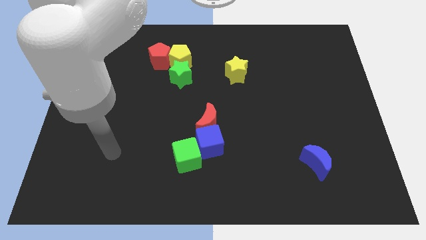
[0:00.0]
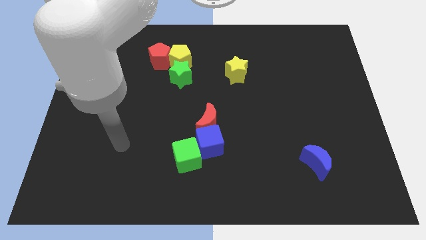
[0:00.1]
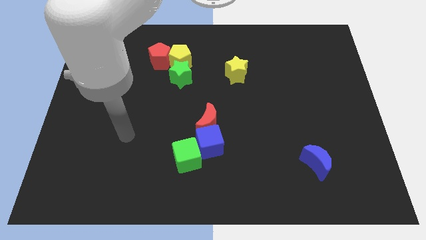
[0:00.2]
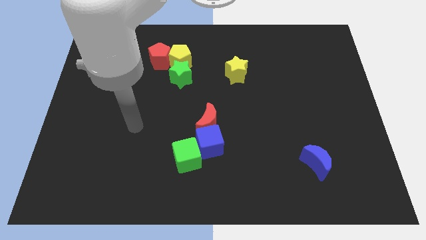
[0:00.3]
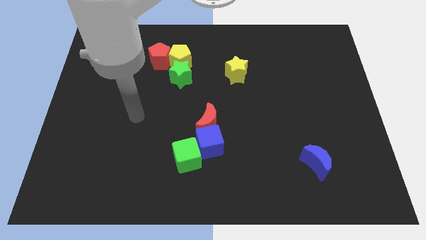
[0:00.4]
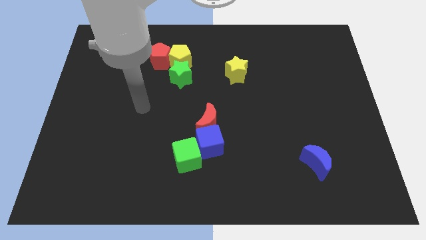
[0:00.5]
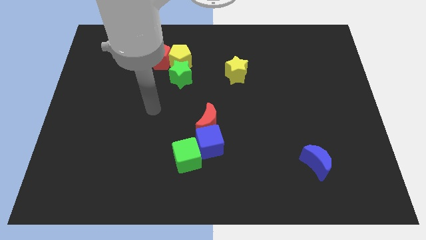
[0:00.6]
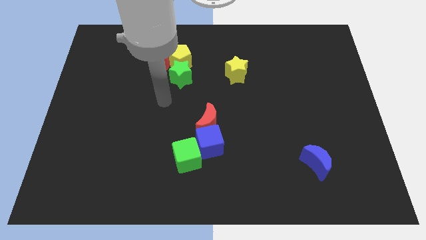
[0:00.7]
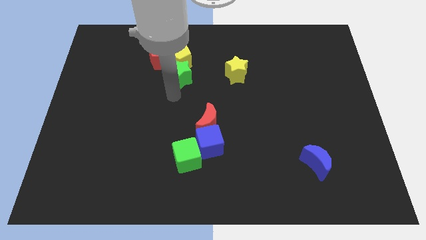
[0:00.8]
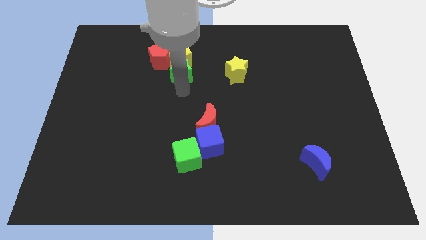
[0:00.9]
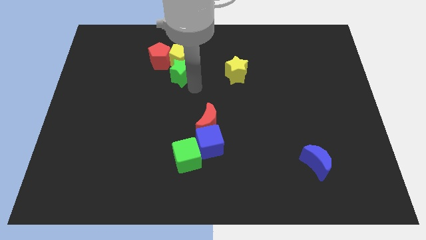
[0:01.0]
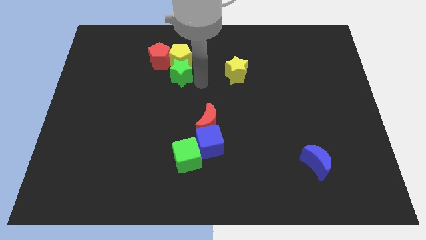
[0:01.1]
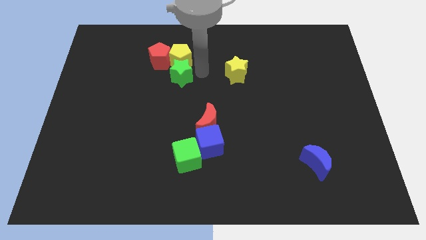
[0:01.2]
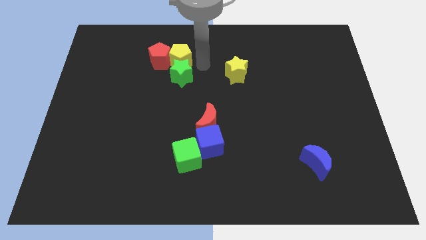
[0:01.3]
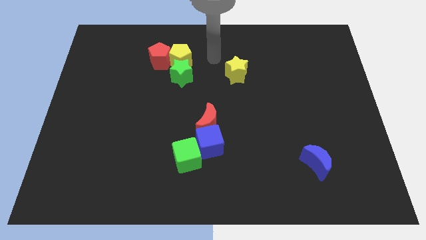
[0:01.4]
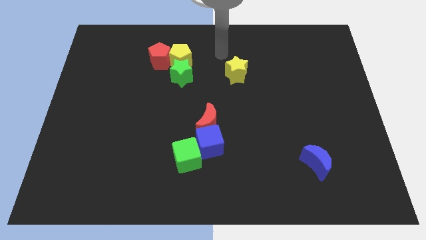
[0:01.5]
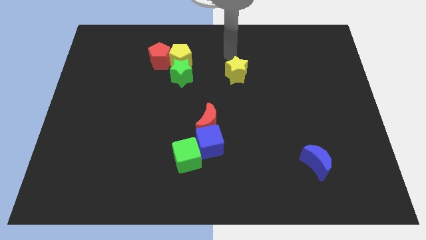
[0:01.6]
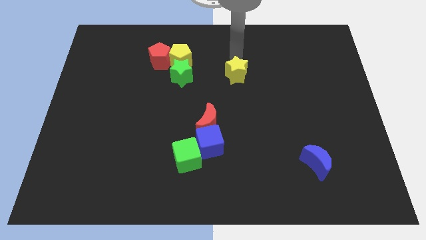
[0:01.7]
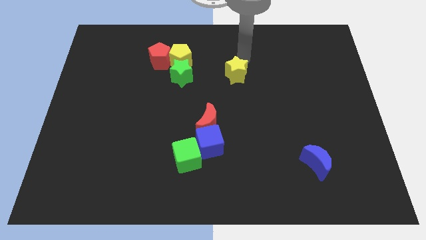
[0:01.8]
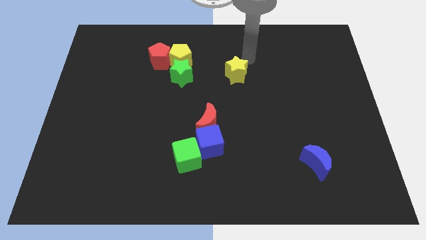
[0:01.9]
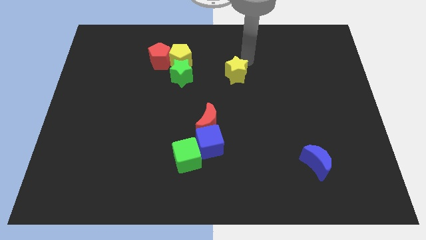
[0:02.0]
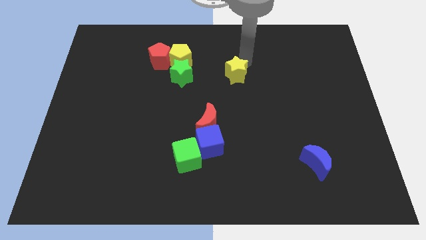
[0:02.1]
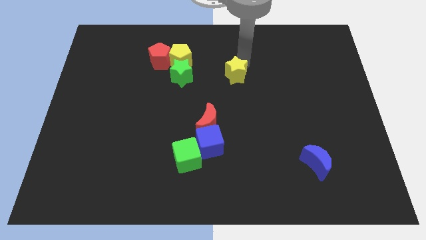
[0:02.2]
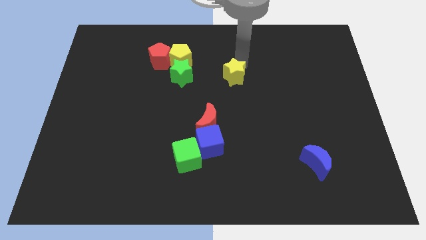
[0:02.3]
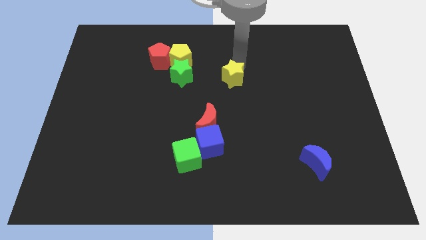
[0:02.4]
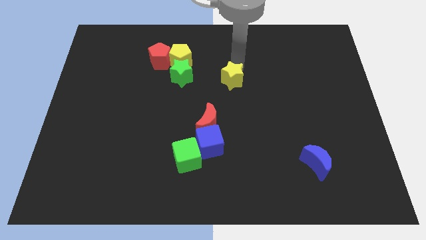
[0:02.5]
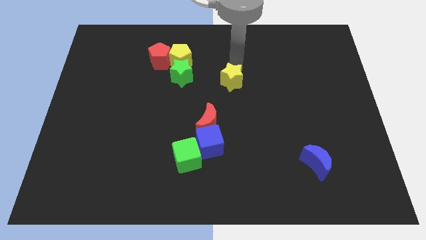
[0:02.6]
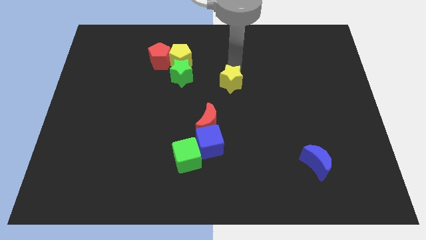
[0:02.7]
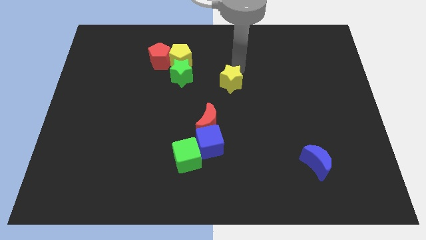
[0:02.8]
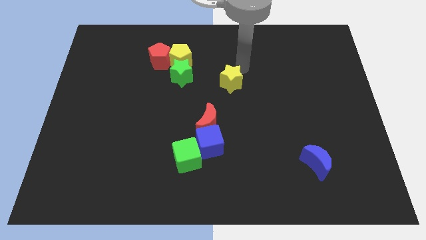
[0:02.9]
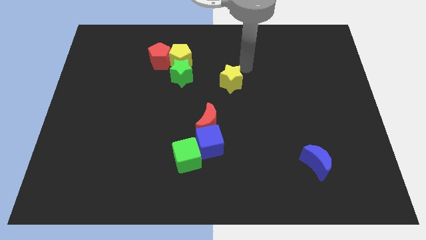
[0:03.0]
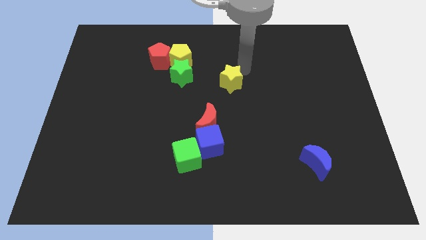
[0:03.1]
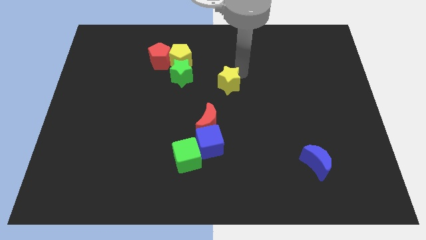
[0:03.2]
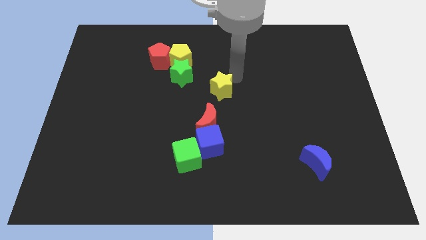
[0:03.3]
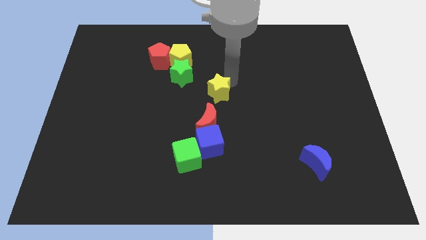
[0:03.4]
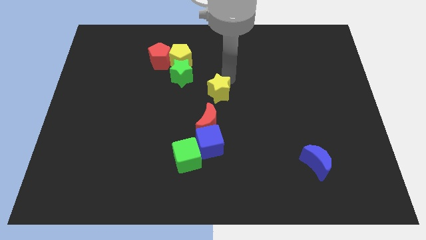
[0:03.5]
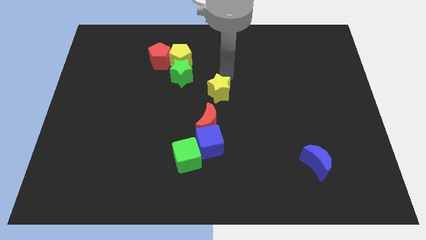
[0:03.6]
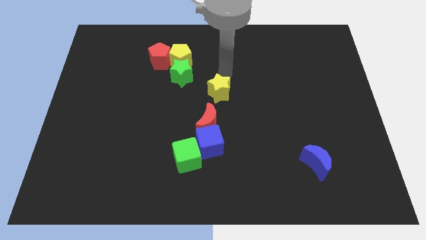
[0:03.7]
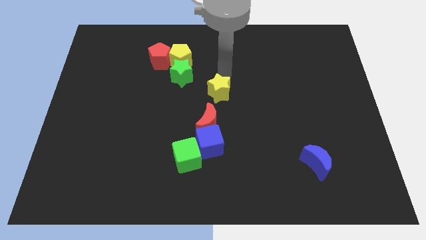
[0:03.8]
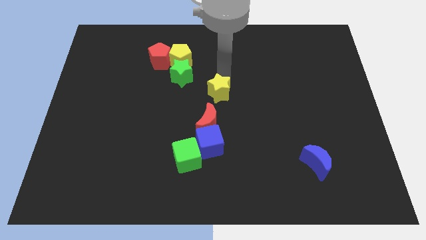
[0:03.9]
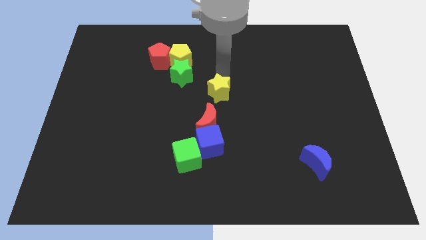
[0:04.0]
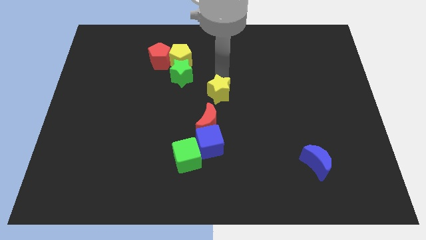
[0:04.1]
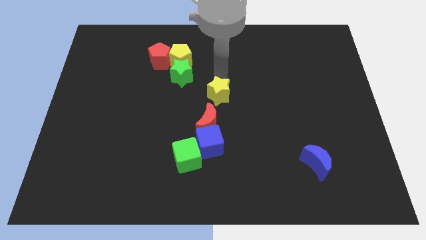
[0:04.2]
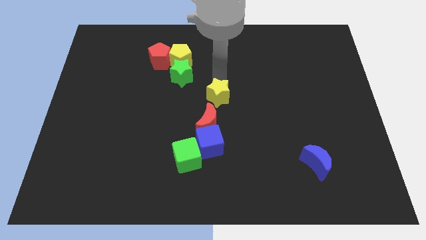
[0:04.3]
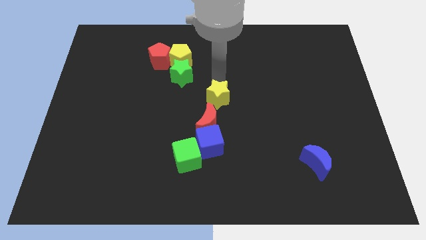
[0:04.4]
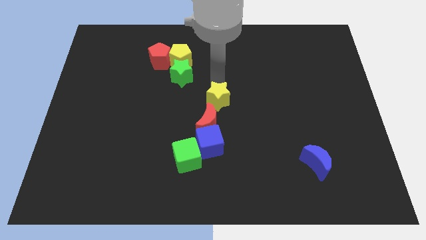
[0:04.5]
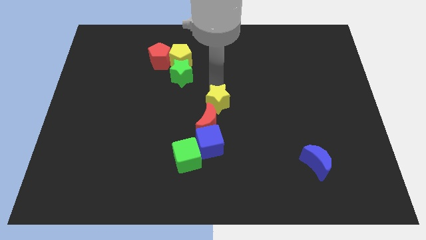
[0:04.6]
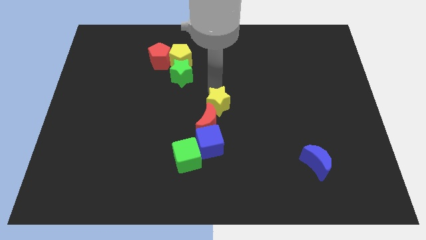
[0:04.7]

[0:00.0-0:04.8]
slide the yellow star towards the red moon

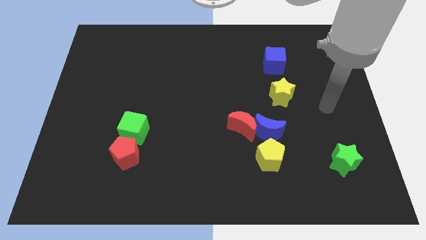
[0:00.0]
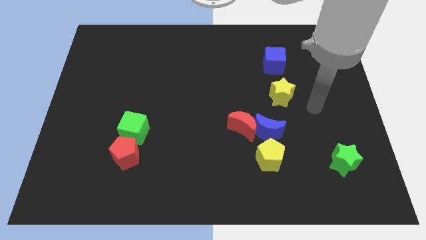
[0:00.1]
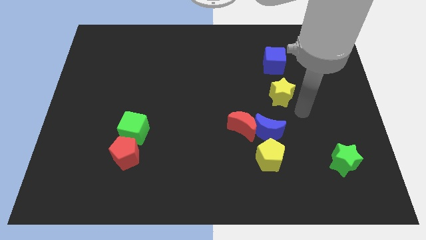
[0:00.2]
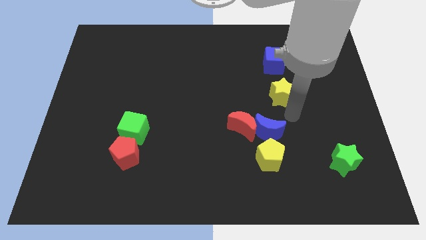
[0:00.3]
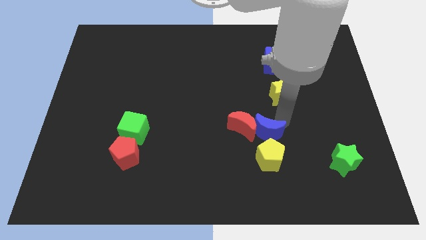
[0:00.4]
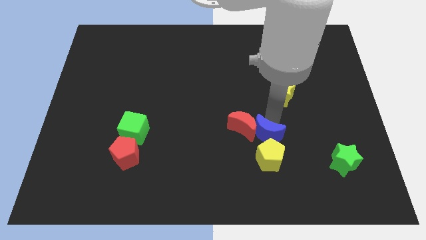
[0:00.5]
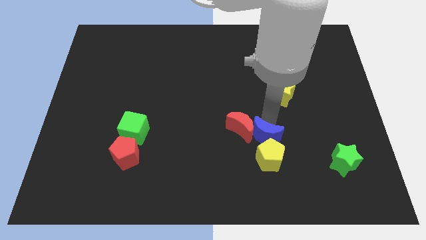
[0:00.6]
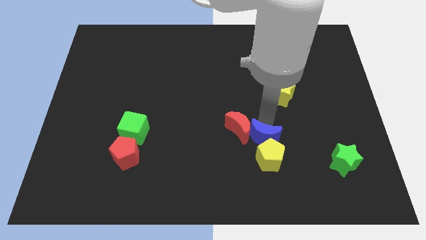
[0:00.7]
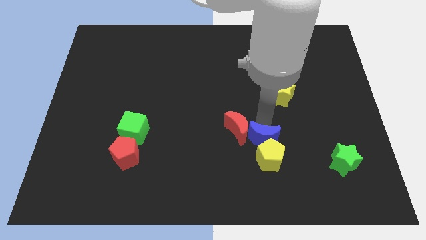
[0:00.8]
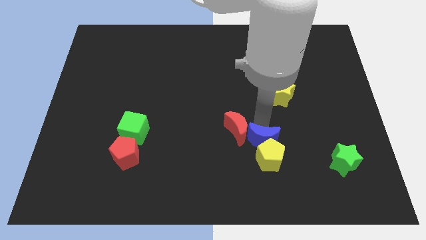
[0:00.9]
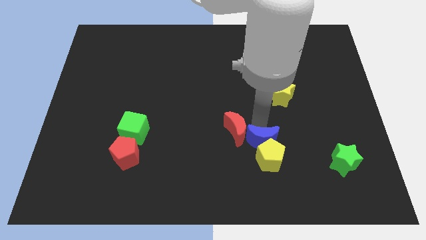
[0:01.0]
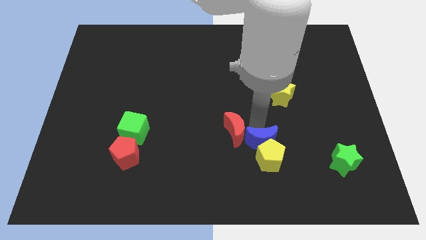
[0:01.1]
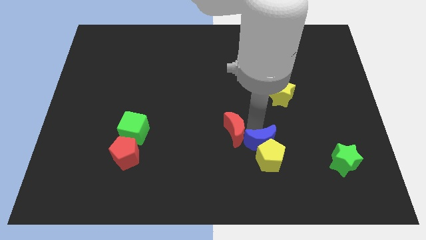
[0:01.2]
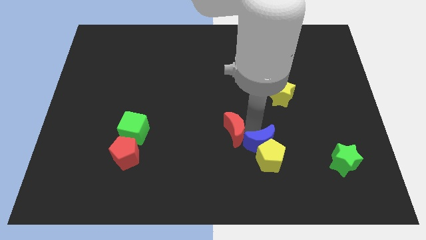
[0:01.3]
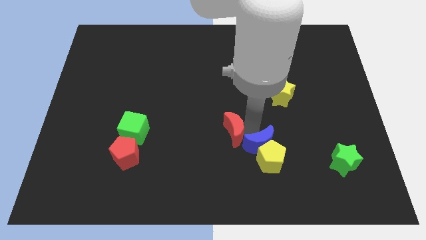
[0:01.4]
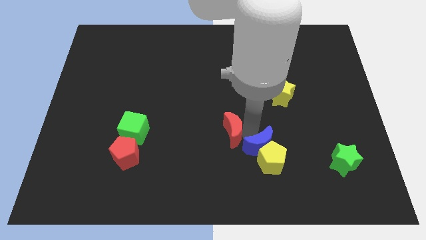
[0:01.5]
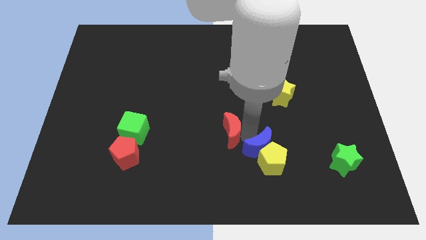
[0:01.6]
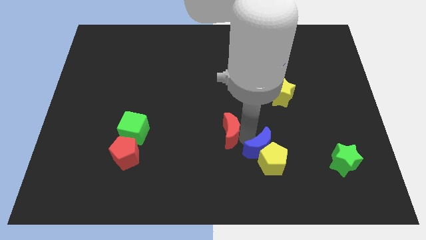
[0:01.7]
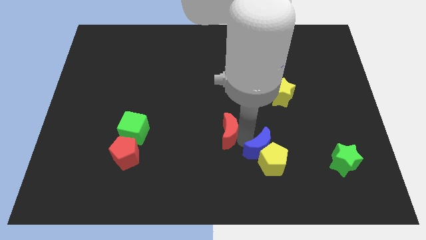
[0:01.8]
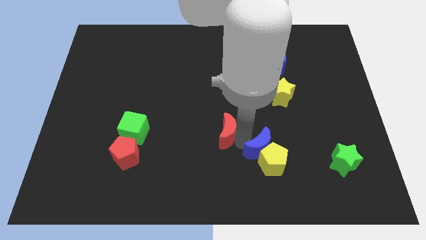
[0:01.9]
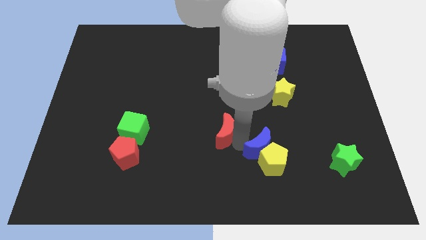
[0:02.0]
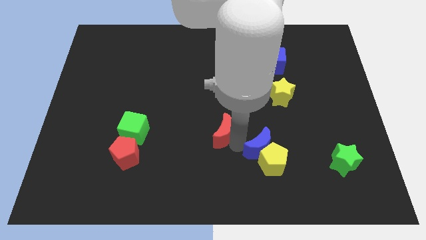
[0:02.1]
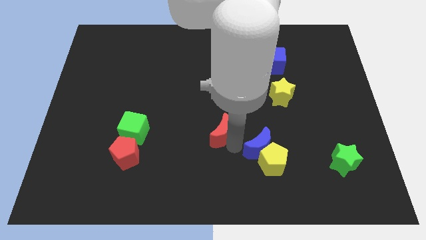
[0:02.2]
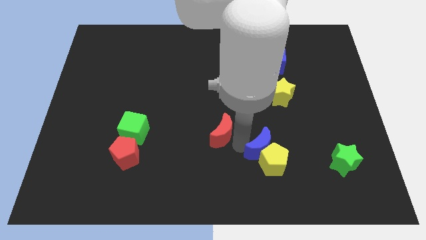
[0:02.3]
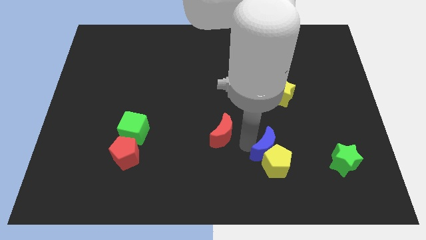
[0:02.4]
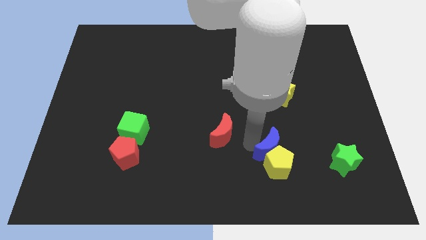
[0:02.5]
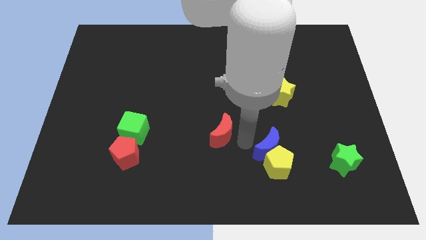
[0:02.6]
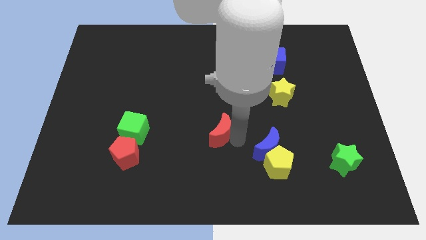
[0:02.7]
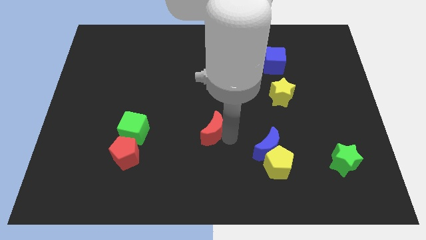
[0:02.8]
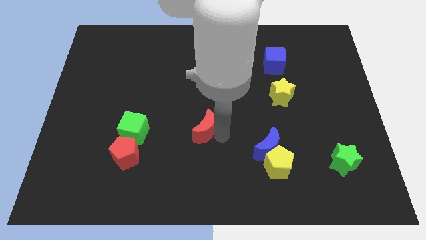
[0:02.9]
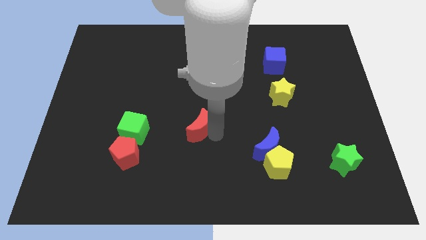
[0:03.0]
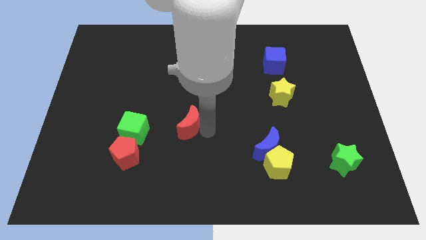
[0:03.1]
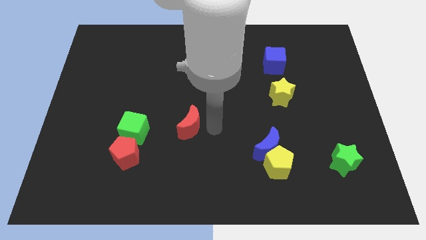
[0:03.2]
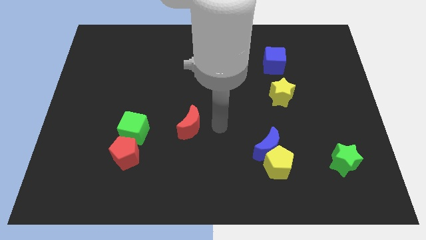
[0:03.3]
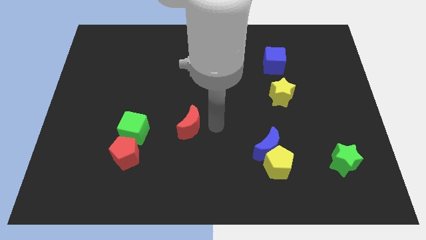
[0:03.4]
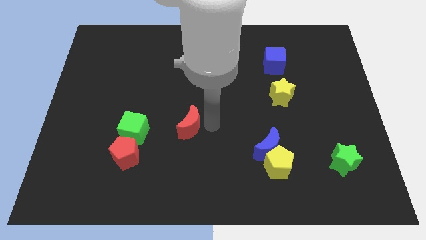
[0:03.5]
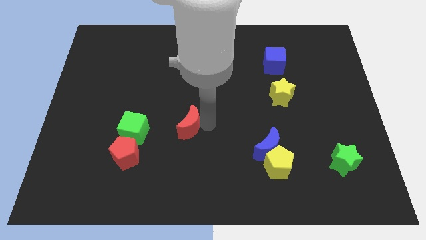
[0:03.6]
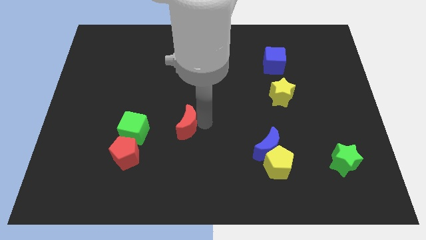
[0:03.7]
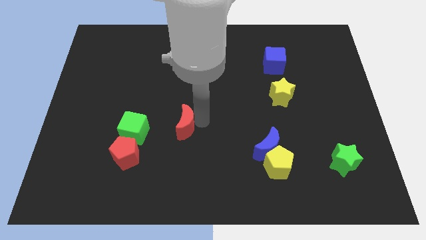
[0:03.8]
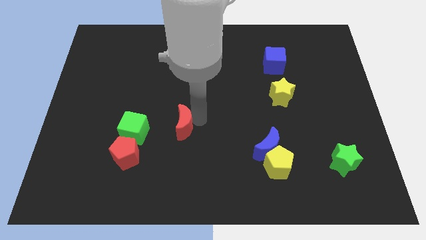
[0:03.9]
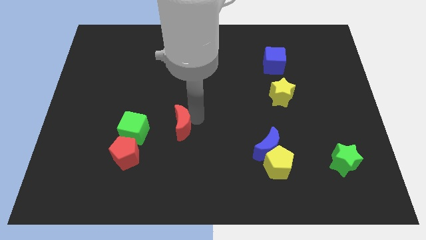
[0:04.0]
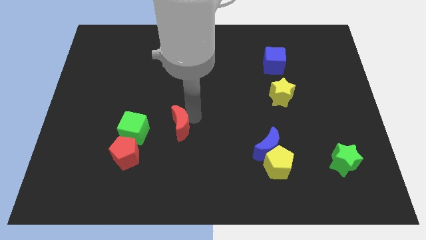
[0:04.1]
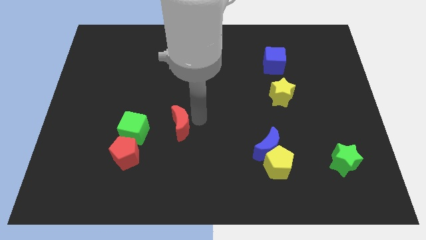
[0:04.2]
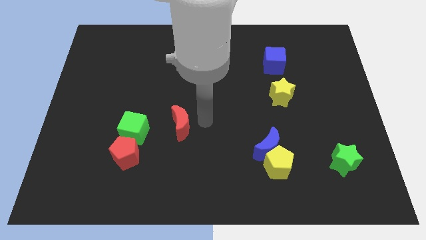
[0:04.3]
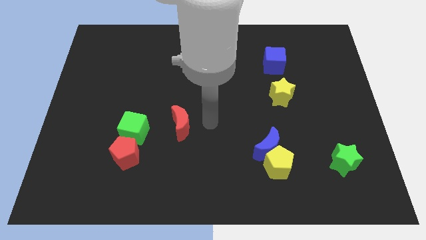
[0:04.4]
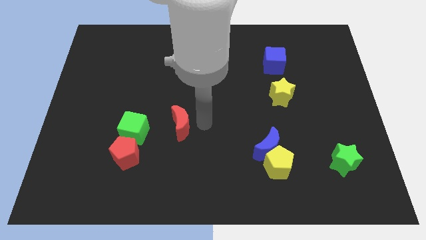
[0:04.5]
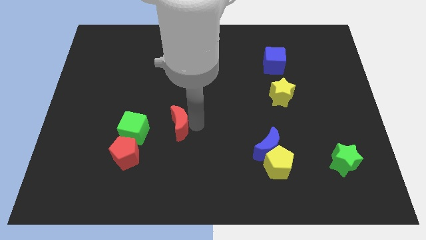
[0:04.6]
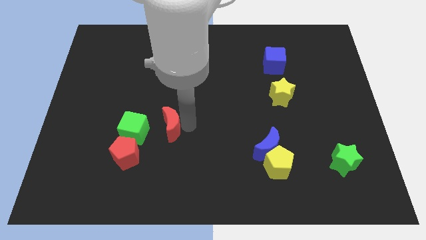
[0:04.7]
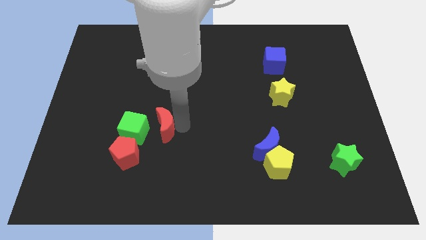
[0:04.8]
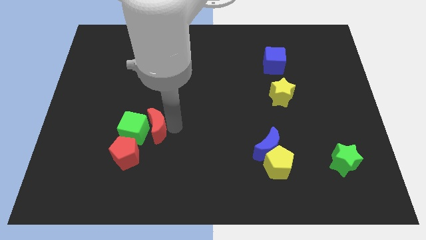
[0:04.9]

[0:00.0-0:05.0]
put the red moon next to the green cube
